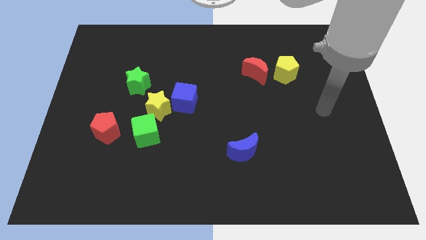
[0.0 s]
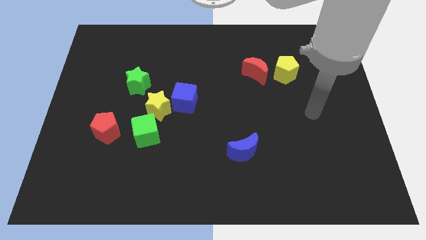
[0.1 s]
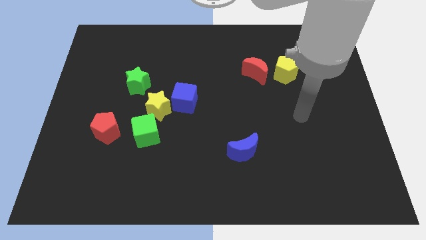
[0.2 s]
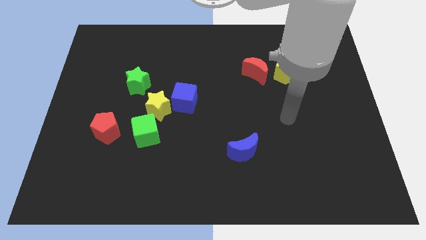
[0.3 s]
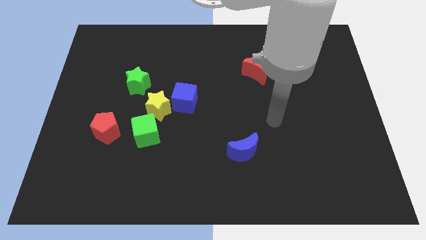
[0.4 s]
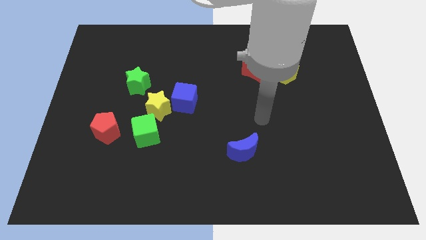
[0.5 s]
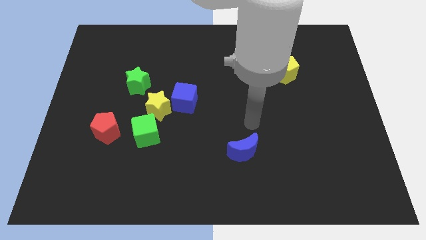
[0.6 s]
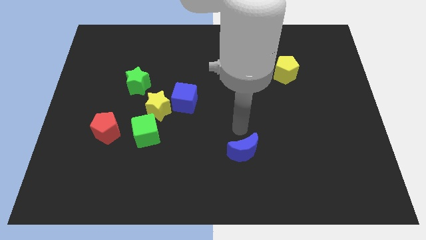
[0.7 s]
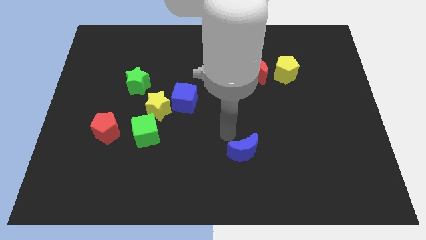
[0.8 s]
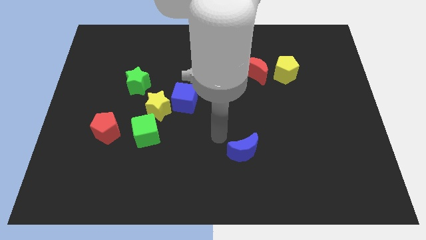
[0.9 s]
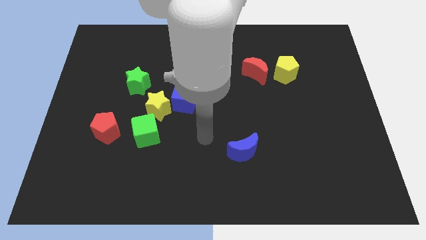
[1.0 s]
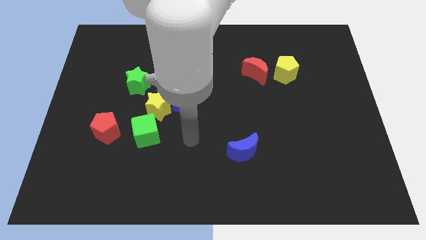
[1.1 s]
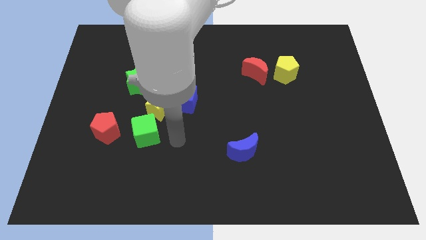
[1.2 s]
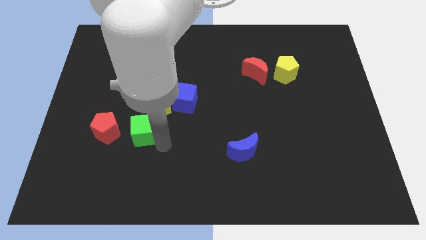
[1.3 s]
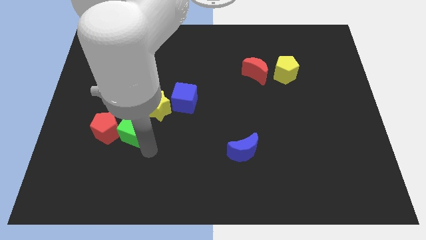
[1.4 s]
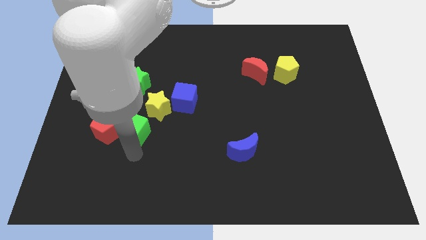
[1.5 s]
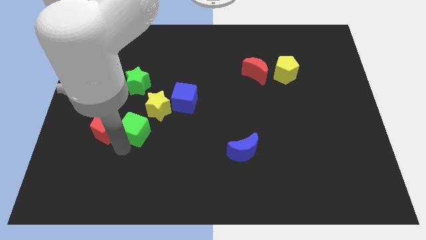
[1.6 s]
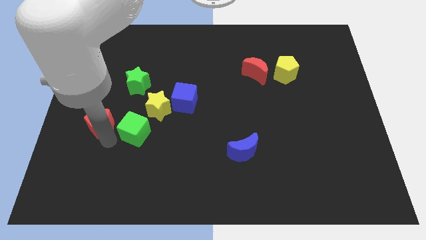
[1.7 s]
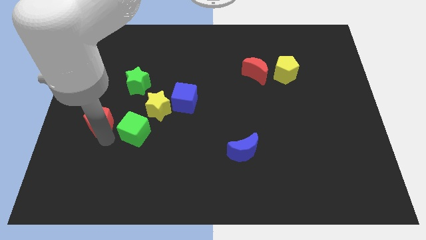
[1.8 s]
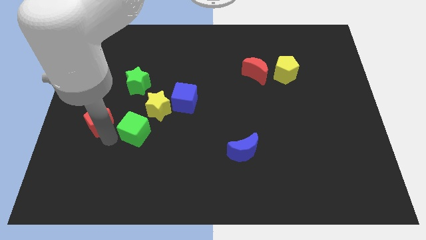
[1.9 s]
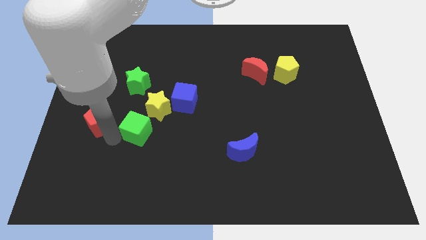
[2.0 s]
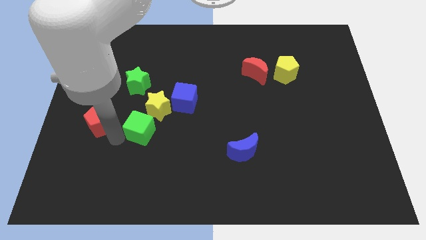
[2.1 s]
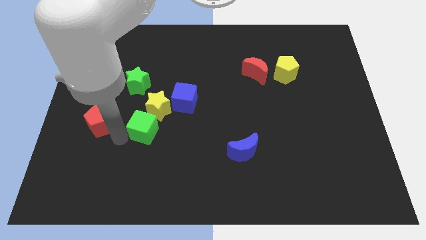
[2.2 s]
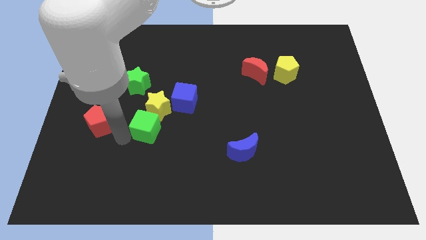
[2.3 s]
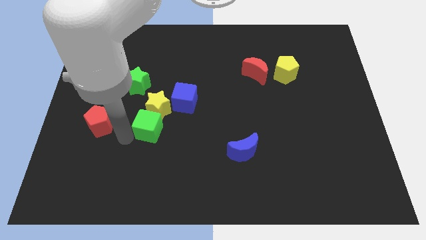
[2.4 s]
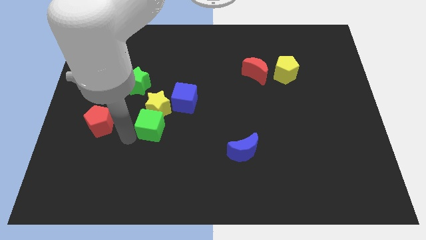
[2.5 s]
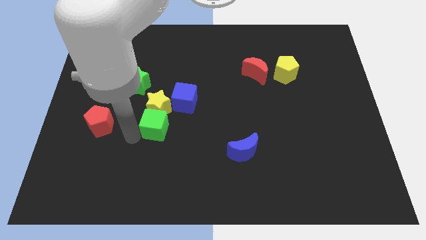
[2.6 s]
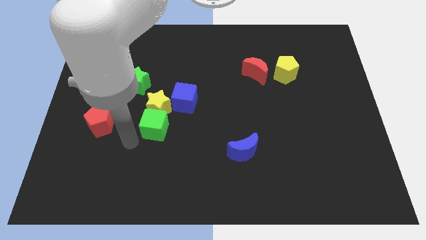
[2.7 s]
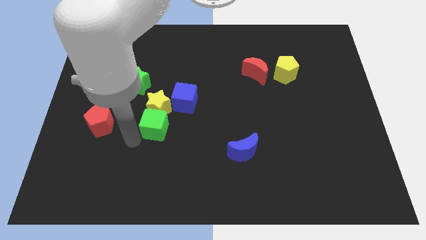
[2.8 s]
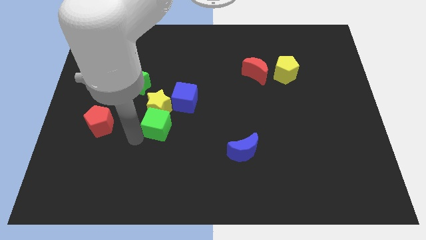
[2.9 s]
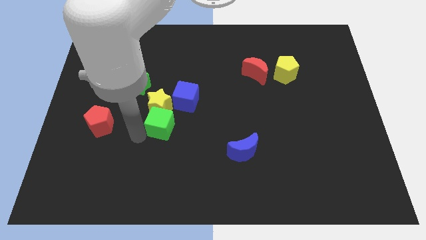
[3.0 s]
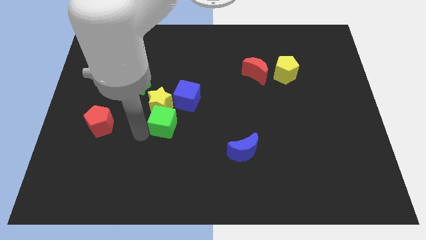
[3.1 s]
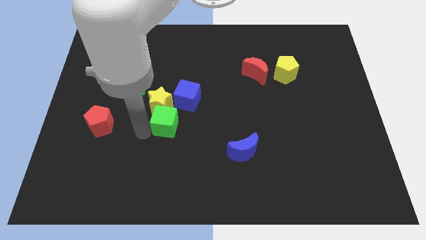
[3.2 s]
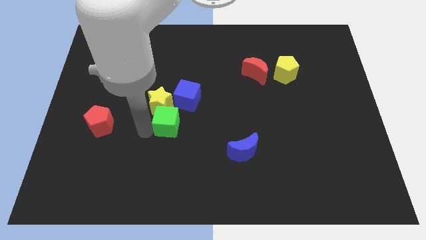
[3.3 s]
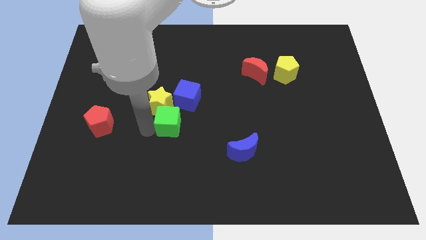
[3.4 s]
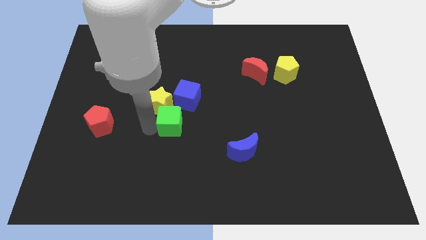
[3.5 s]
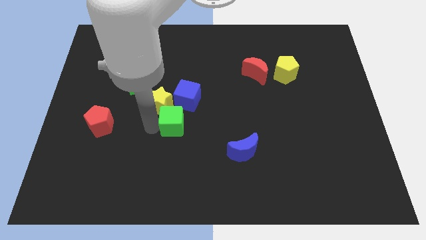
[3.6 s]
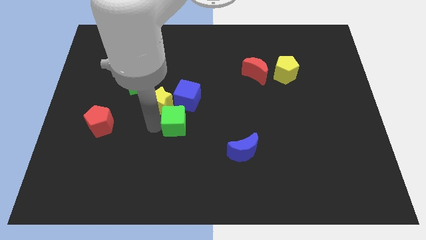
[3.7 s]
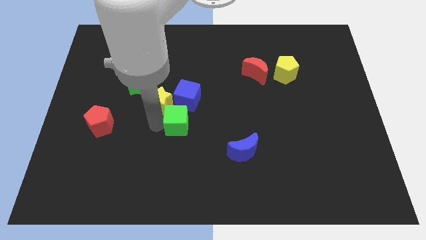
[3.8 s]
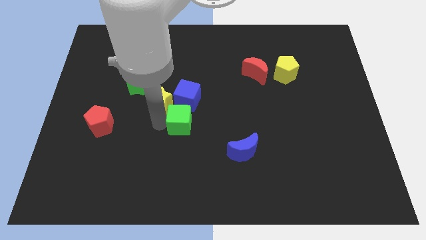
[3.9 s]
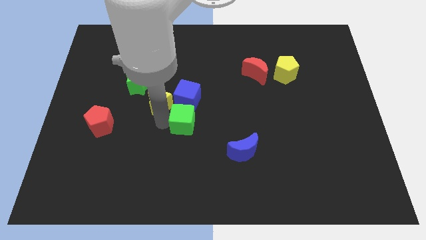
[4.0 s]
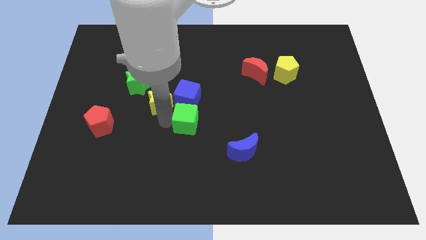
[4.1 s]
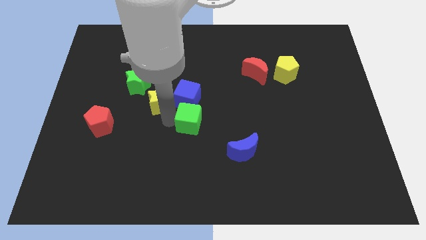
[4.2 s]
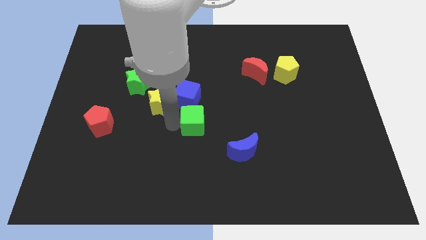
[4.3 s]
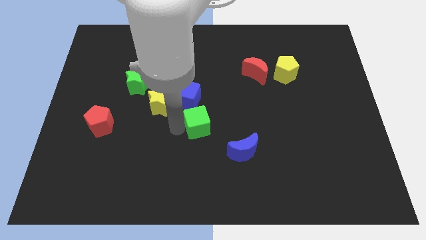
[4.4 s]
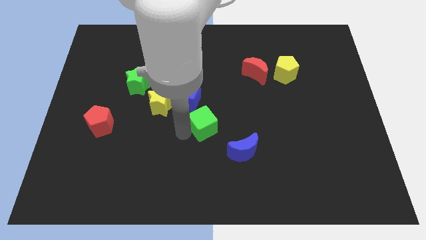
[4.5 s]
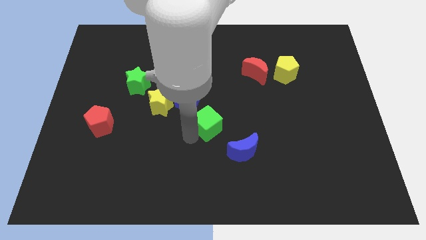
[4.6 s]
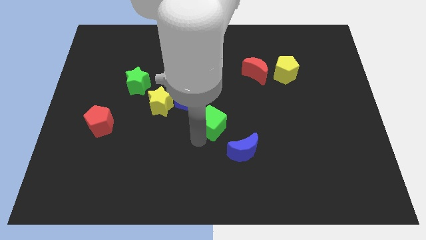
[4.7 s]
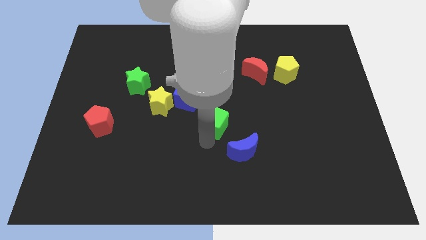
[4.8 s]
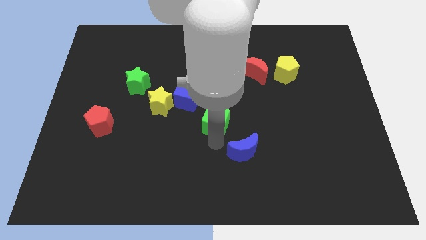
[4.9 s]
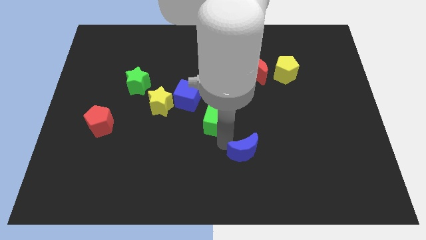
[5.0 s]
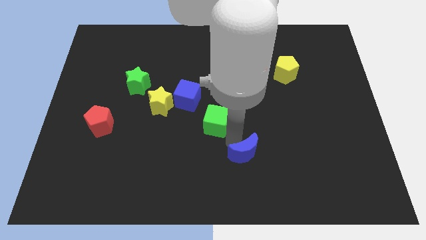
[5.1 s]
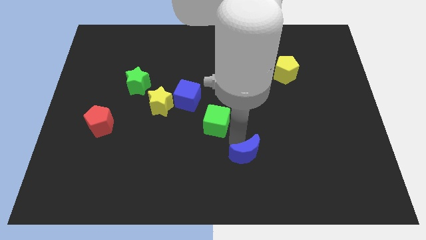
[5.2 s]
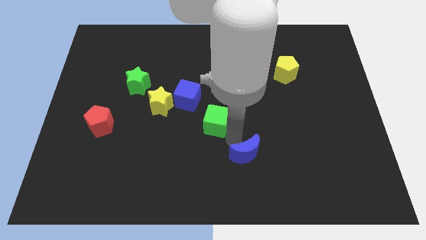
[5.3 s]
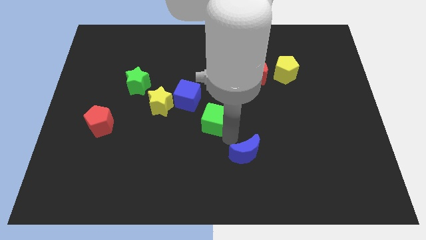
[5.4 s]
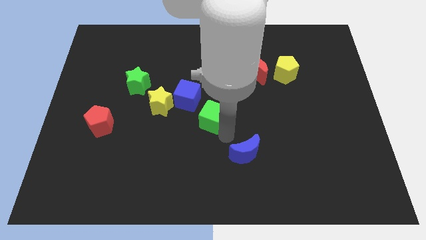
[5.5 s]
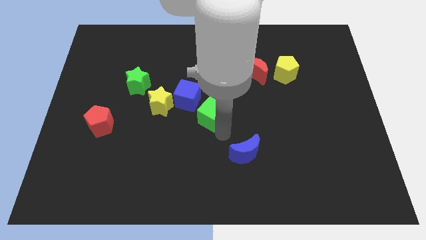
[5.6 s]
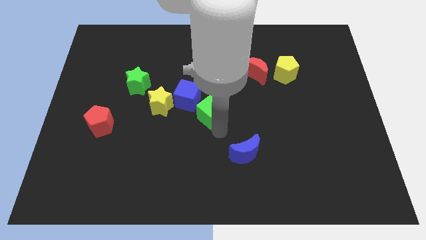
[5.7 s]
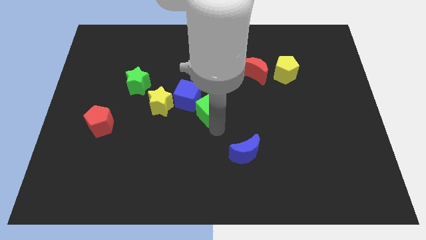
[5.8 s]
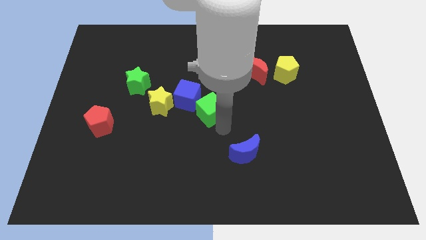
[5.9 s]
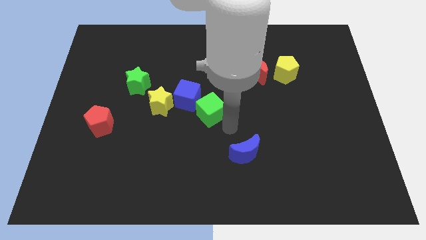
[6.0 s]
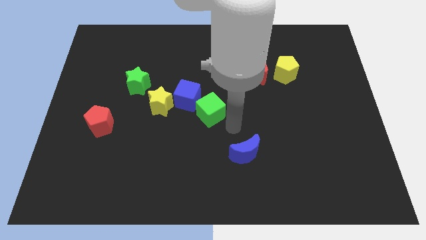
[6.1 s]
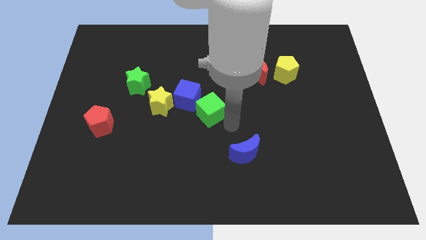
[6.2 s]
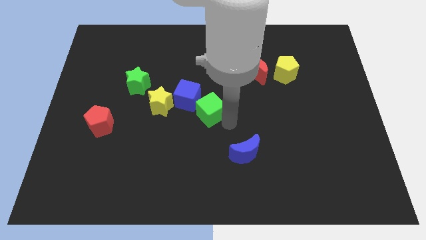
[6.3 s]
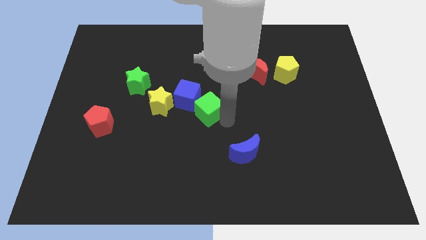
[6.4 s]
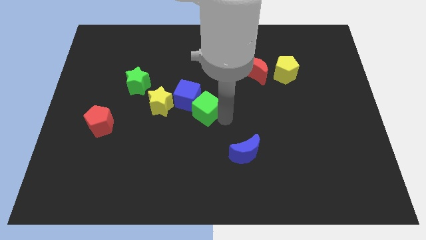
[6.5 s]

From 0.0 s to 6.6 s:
push the green cube next to the blue cube

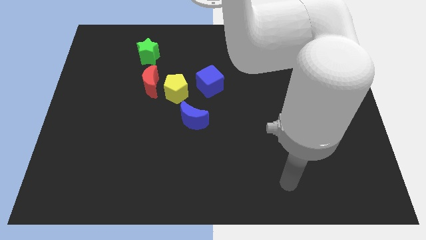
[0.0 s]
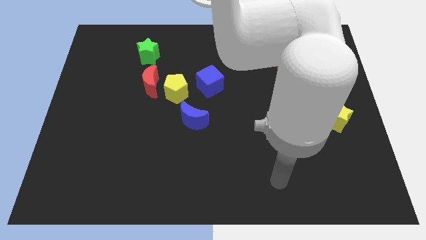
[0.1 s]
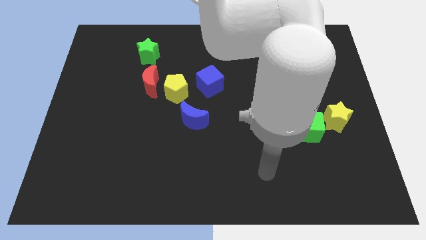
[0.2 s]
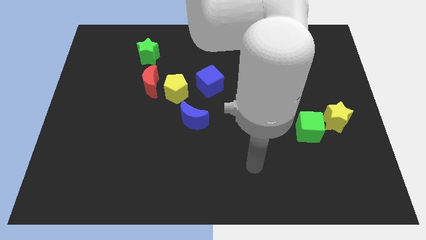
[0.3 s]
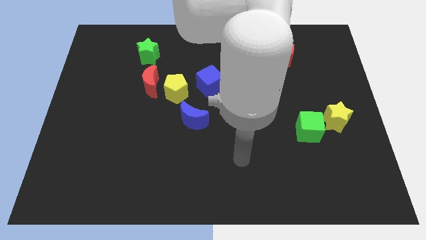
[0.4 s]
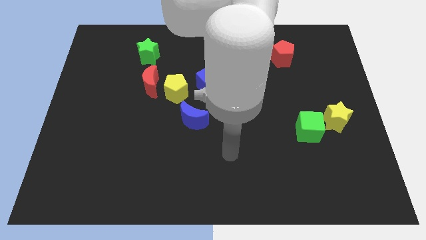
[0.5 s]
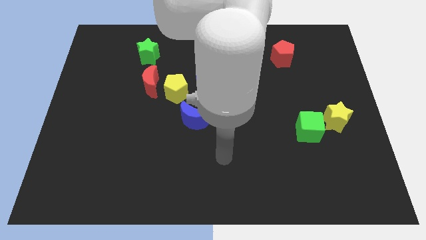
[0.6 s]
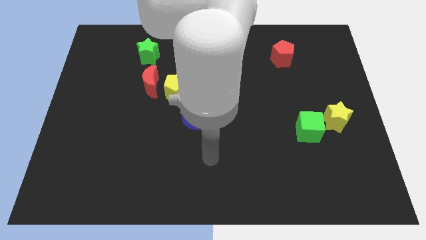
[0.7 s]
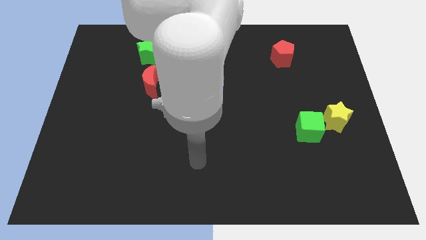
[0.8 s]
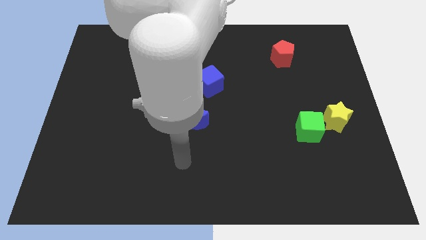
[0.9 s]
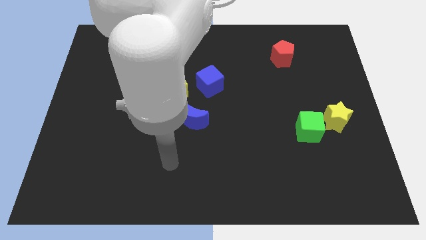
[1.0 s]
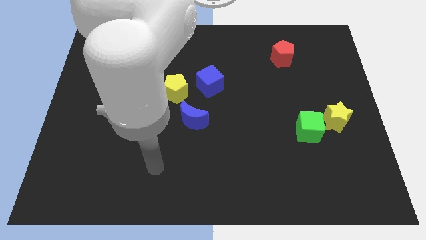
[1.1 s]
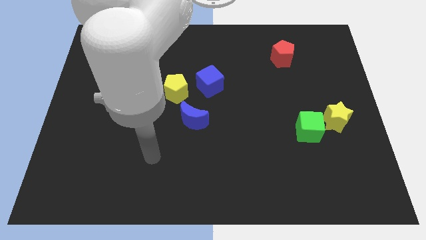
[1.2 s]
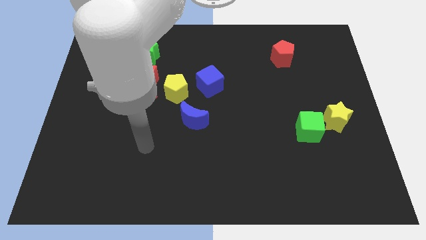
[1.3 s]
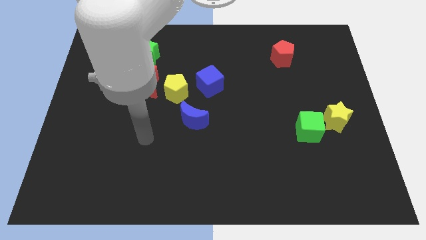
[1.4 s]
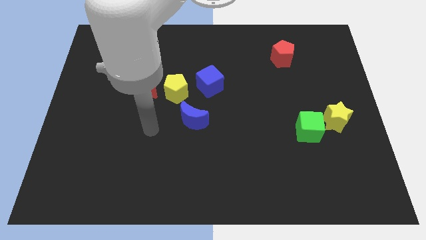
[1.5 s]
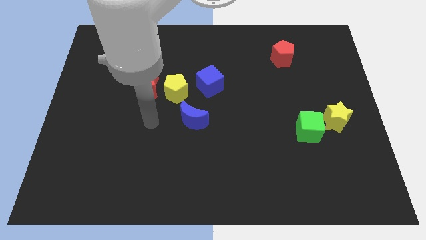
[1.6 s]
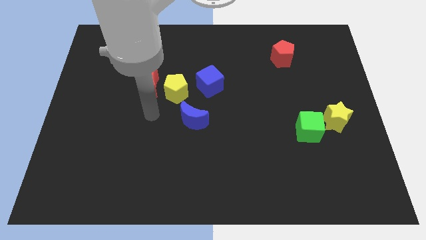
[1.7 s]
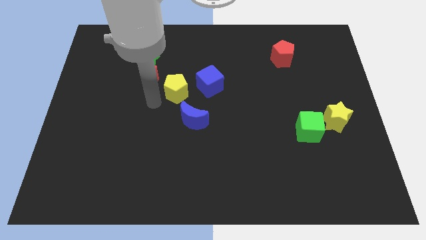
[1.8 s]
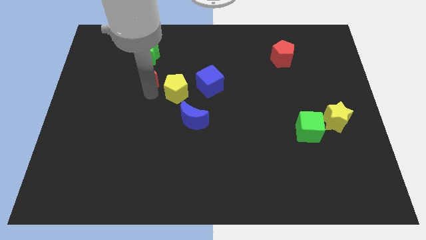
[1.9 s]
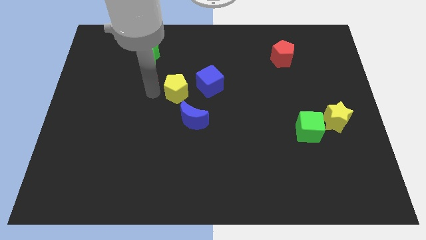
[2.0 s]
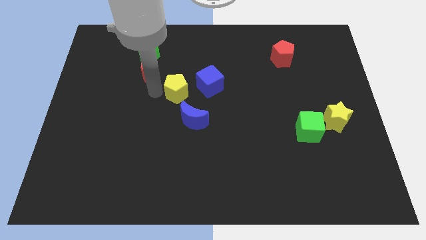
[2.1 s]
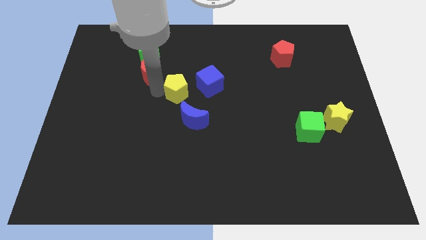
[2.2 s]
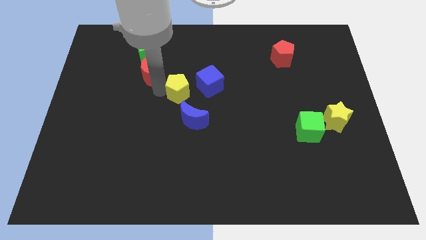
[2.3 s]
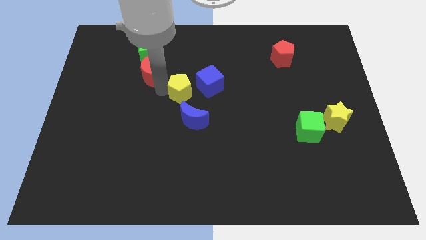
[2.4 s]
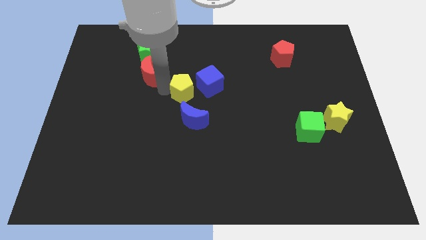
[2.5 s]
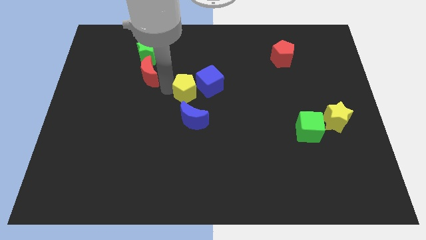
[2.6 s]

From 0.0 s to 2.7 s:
put the yellow pentagon next to the blue cube
